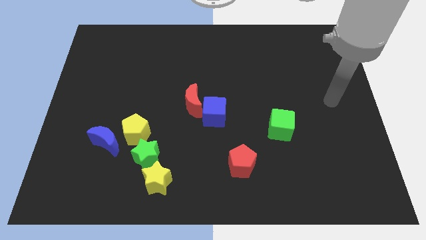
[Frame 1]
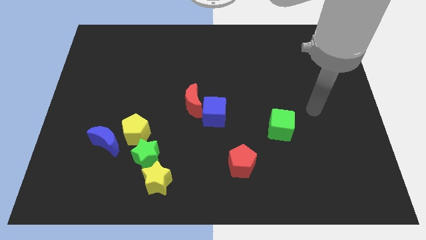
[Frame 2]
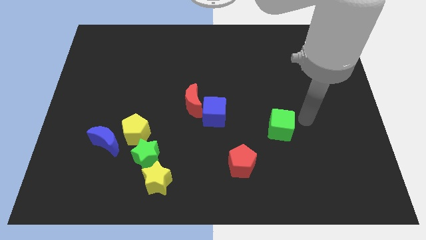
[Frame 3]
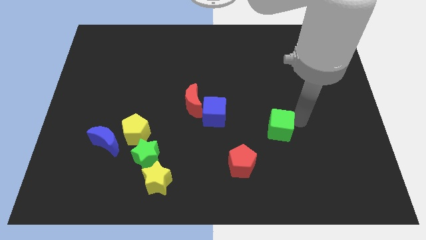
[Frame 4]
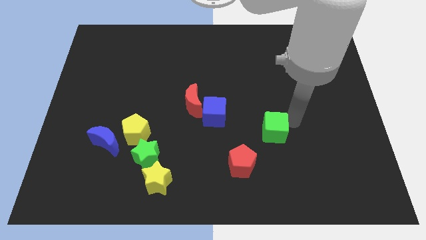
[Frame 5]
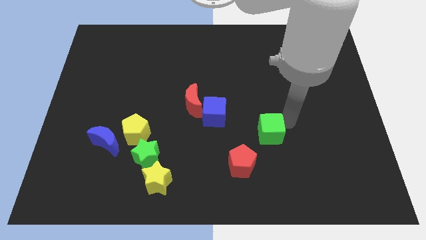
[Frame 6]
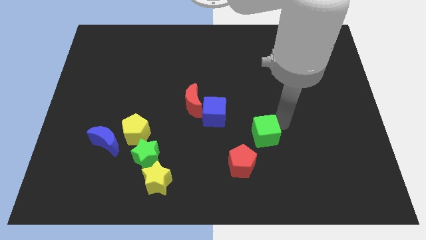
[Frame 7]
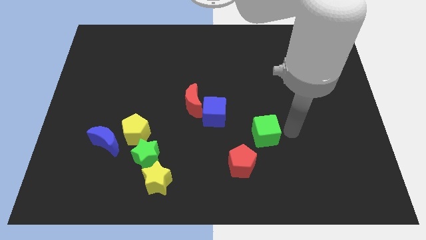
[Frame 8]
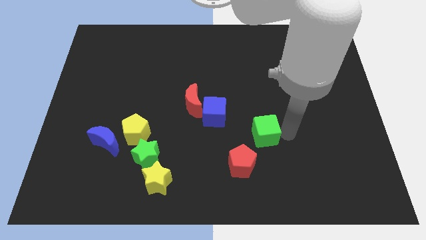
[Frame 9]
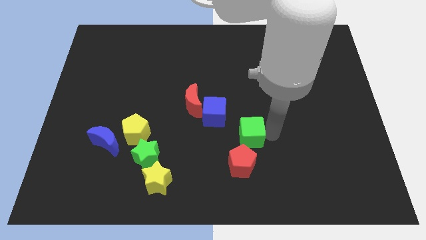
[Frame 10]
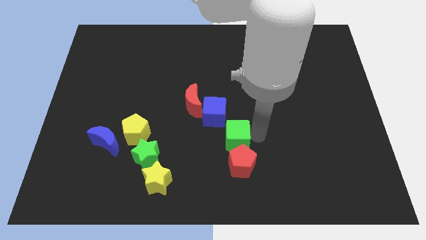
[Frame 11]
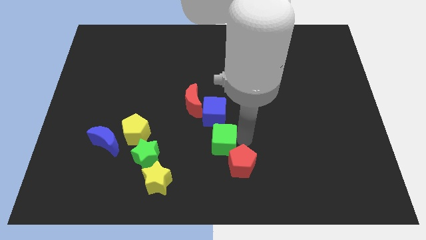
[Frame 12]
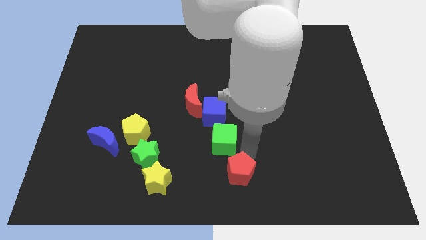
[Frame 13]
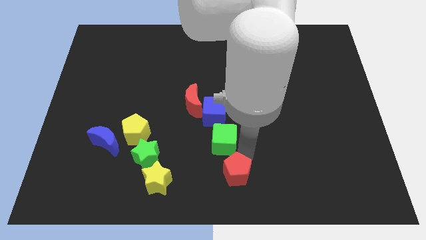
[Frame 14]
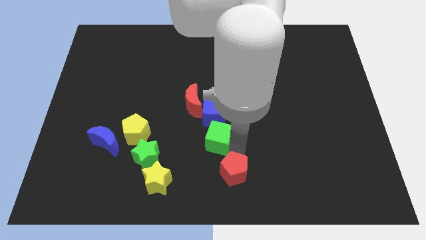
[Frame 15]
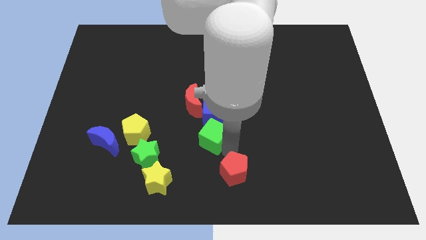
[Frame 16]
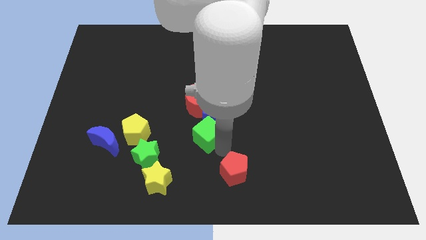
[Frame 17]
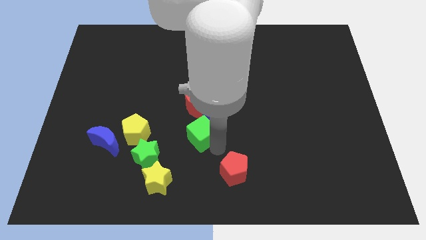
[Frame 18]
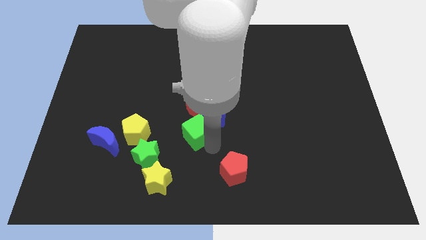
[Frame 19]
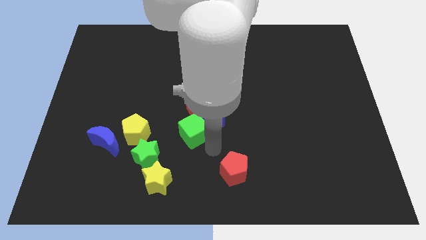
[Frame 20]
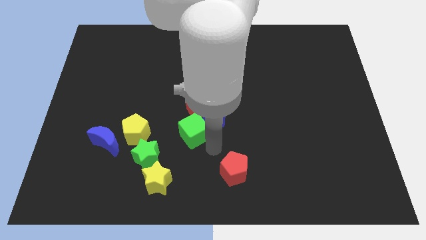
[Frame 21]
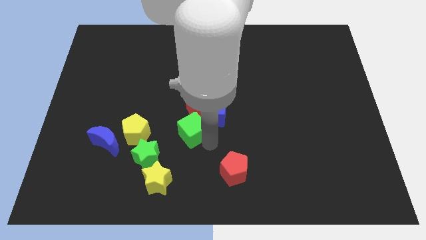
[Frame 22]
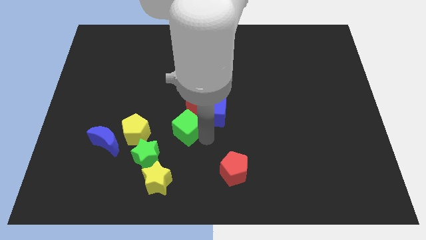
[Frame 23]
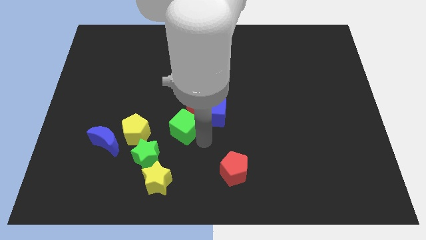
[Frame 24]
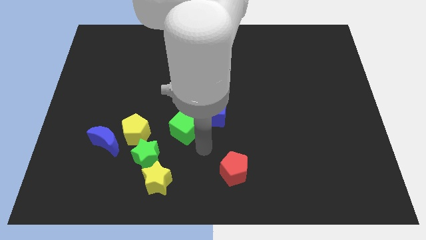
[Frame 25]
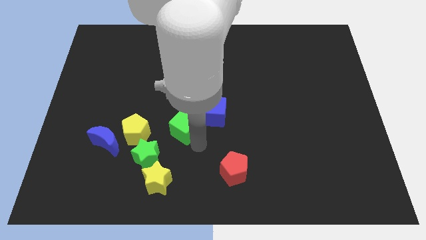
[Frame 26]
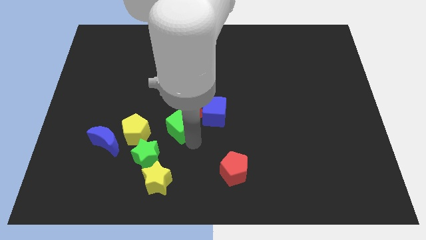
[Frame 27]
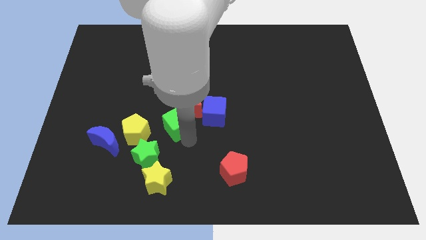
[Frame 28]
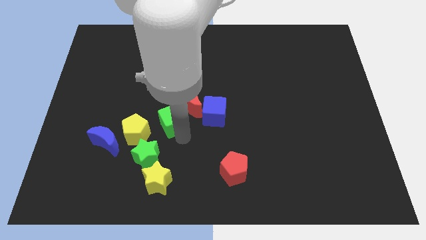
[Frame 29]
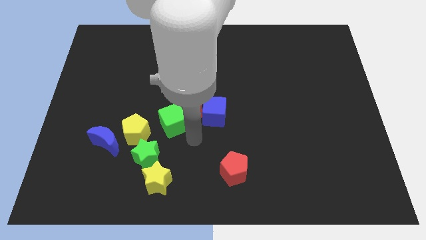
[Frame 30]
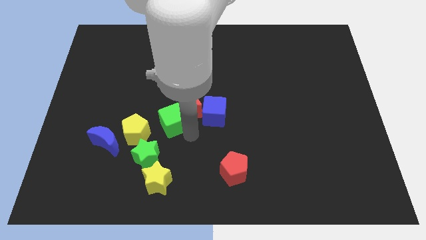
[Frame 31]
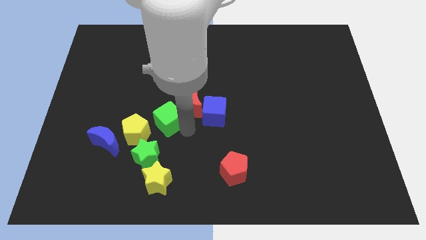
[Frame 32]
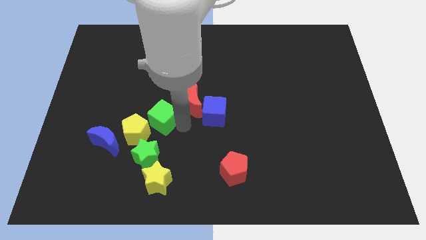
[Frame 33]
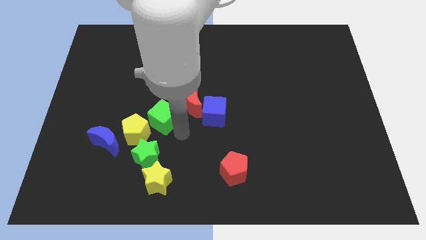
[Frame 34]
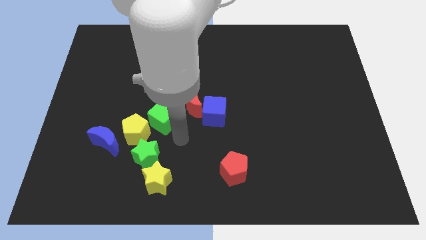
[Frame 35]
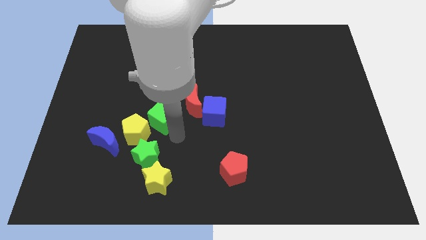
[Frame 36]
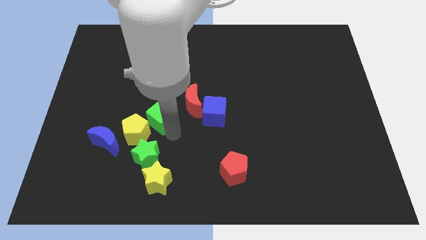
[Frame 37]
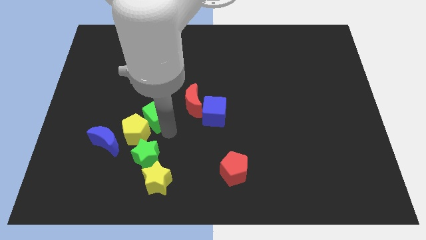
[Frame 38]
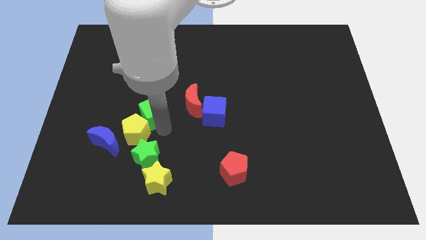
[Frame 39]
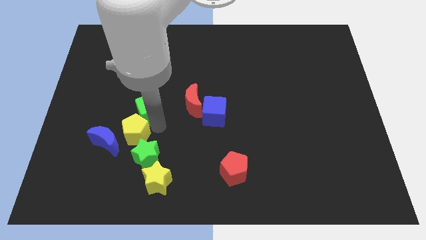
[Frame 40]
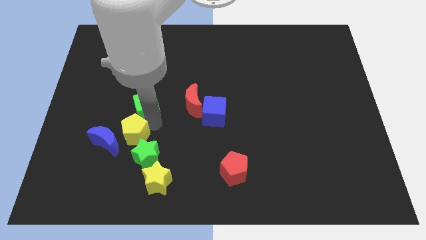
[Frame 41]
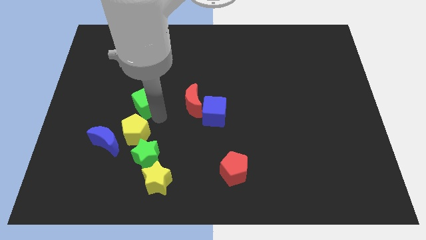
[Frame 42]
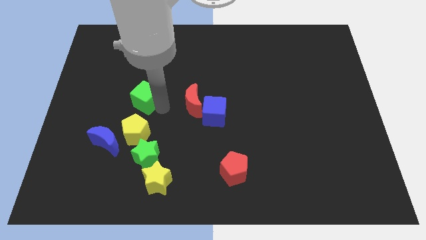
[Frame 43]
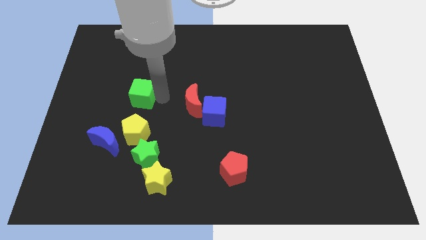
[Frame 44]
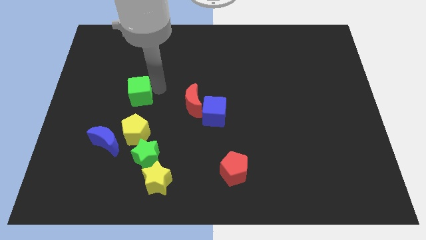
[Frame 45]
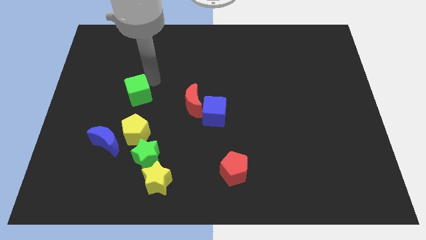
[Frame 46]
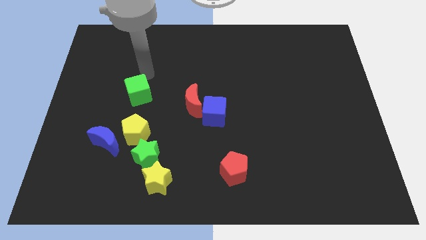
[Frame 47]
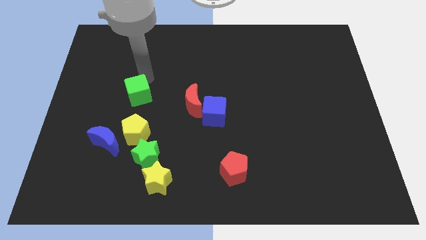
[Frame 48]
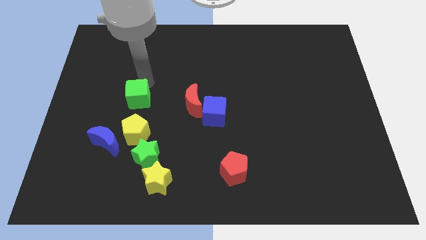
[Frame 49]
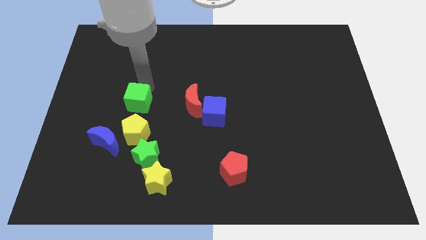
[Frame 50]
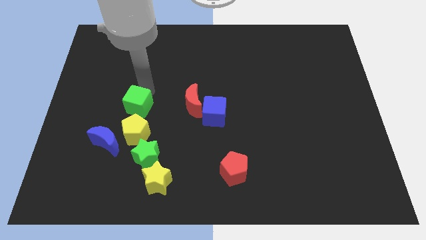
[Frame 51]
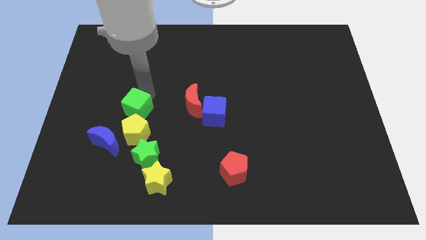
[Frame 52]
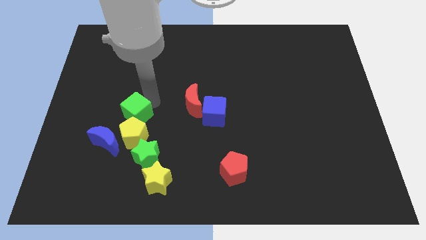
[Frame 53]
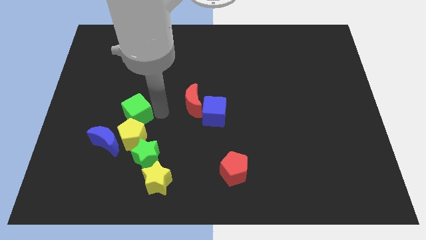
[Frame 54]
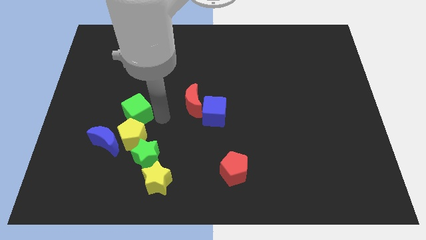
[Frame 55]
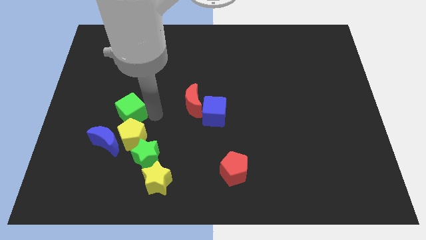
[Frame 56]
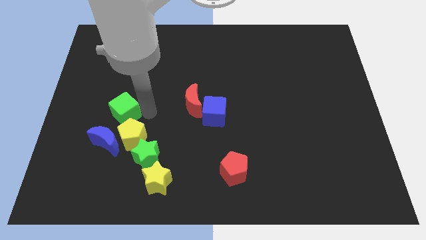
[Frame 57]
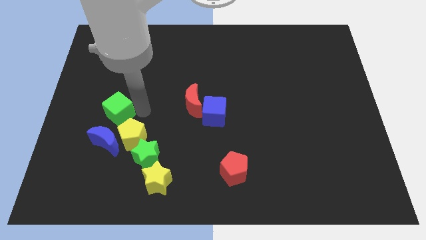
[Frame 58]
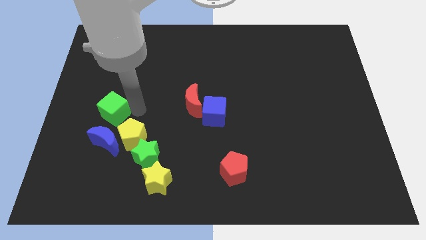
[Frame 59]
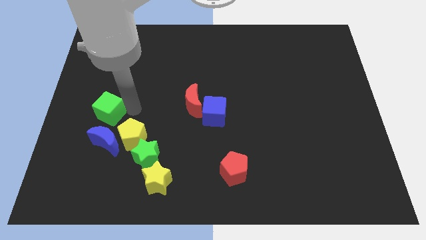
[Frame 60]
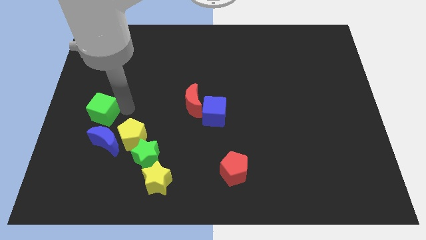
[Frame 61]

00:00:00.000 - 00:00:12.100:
put the green cube to the center left

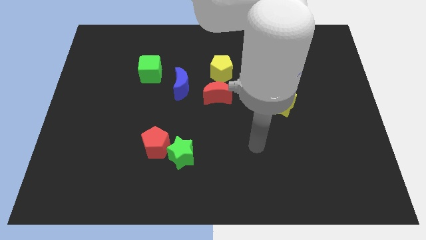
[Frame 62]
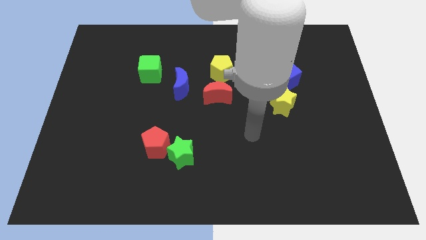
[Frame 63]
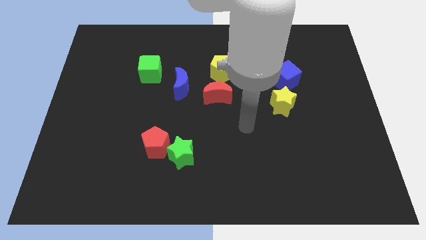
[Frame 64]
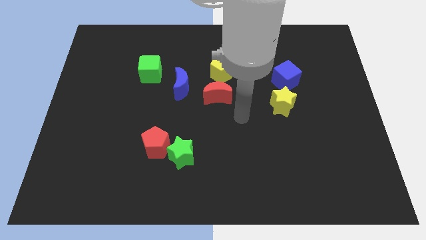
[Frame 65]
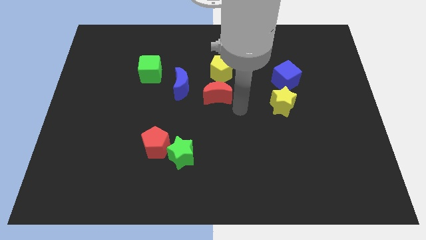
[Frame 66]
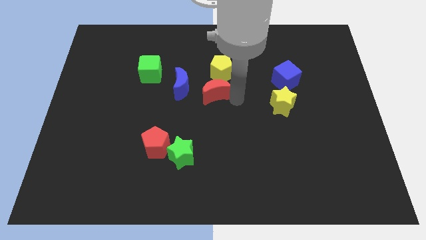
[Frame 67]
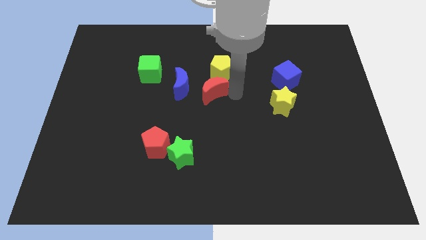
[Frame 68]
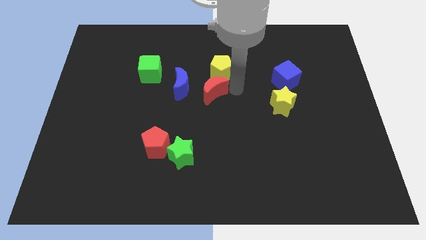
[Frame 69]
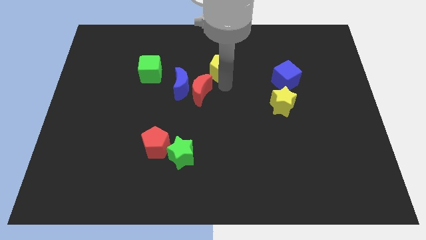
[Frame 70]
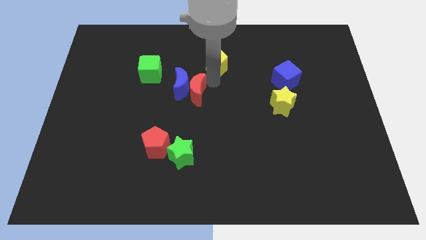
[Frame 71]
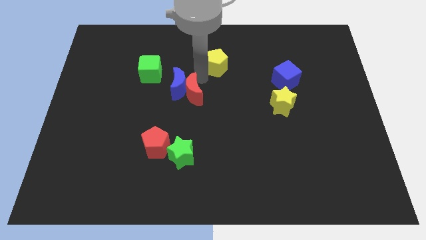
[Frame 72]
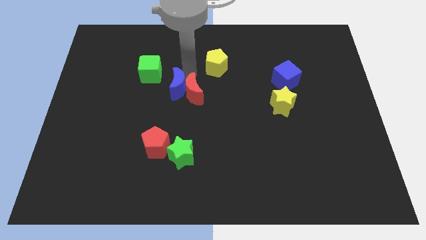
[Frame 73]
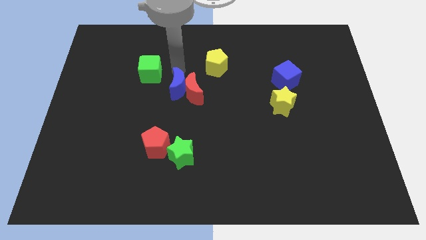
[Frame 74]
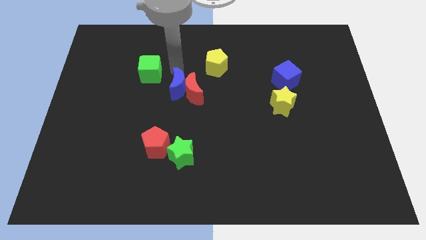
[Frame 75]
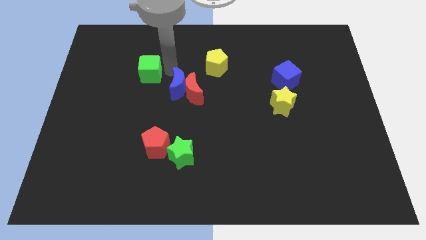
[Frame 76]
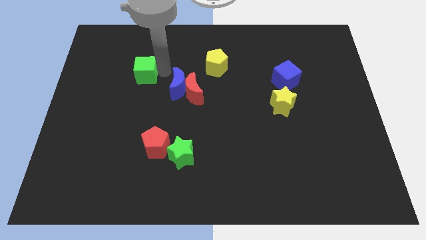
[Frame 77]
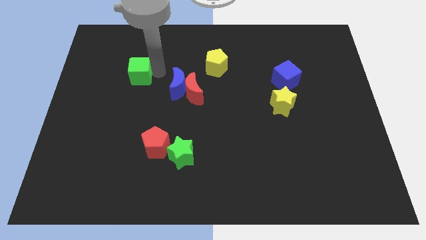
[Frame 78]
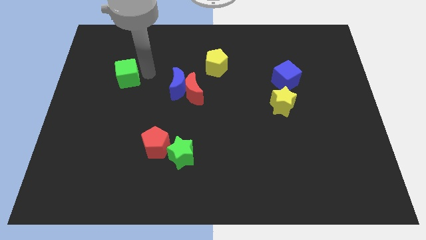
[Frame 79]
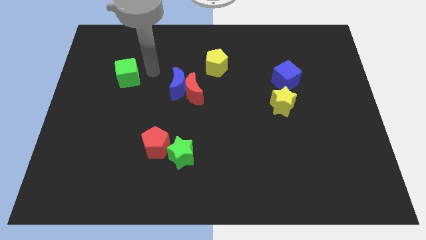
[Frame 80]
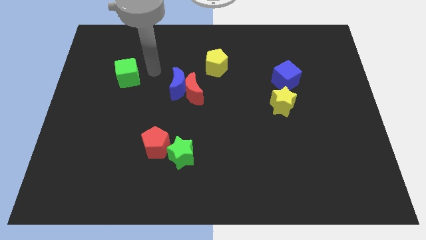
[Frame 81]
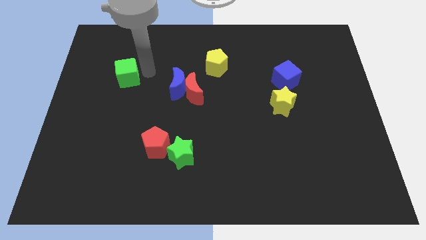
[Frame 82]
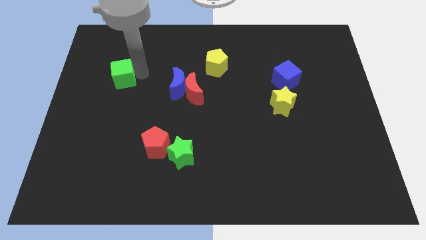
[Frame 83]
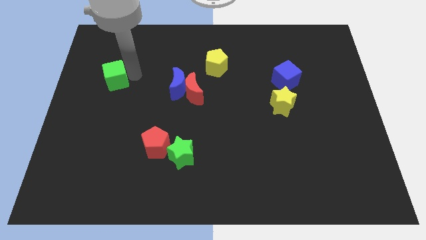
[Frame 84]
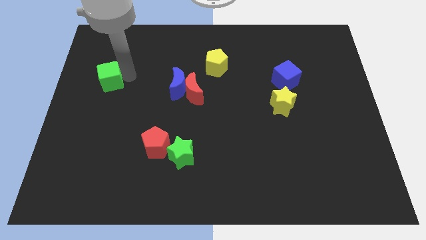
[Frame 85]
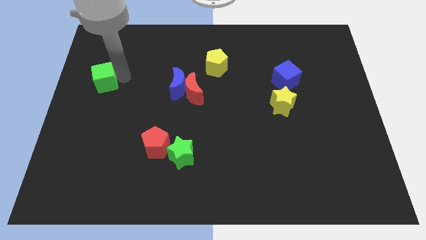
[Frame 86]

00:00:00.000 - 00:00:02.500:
push the green cube to the left side
